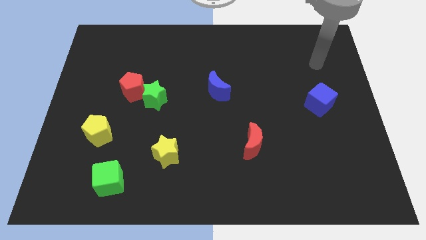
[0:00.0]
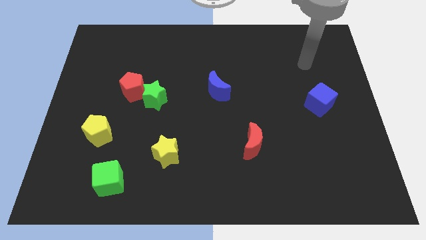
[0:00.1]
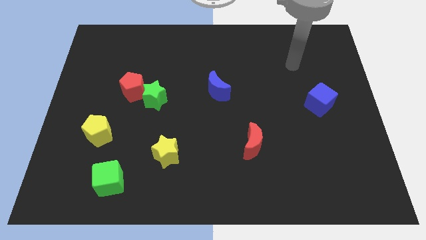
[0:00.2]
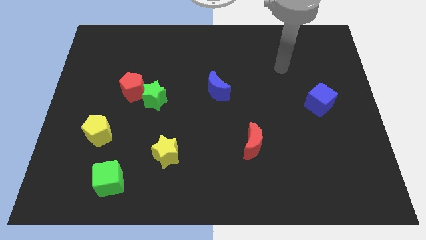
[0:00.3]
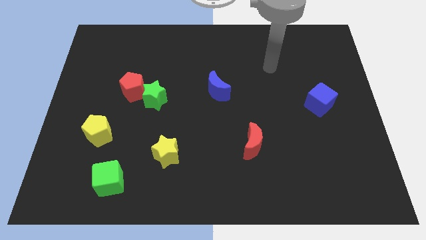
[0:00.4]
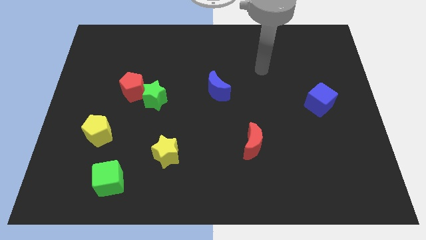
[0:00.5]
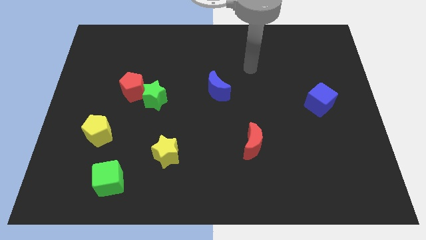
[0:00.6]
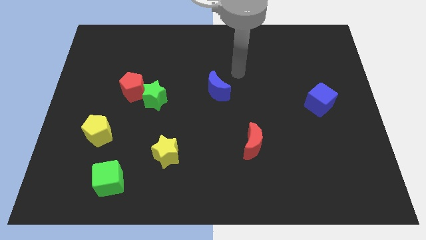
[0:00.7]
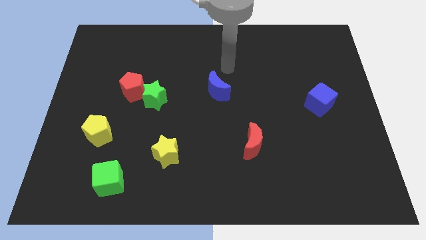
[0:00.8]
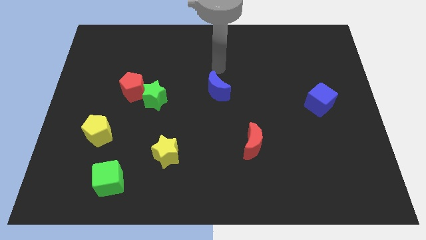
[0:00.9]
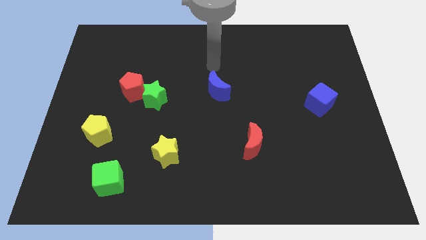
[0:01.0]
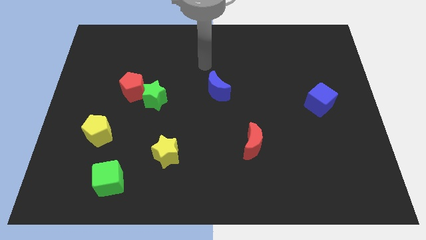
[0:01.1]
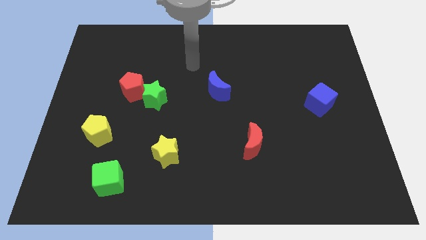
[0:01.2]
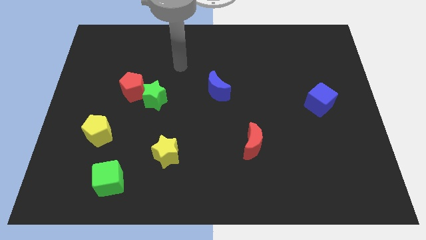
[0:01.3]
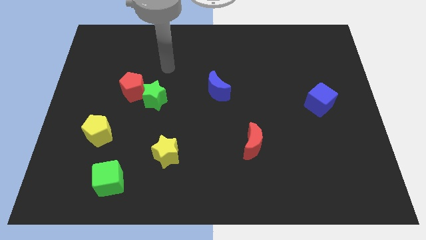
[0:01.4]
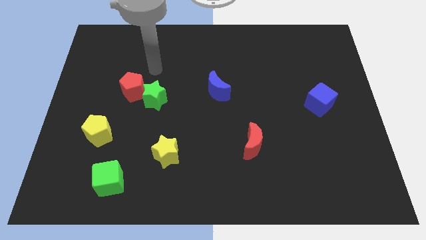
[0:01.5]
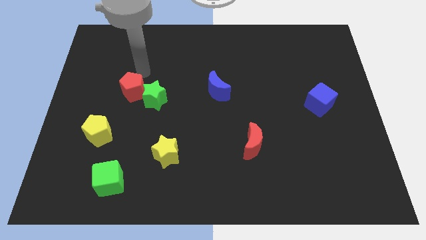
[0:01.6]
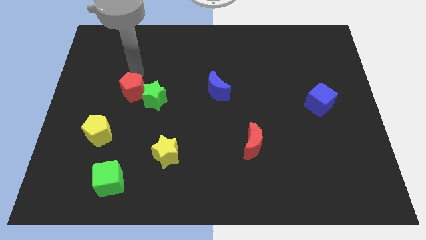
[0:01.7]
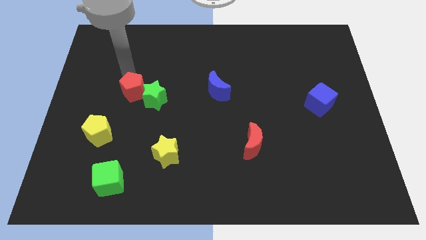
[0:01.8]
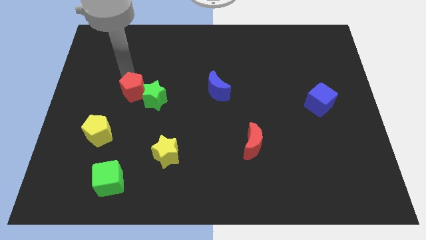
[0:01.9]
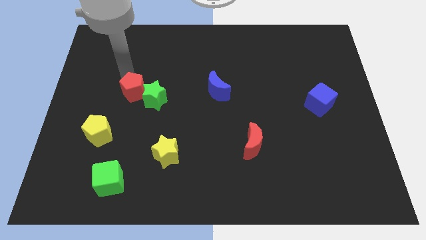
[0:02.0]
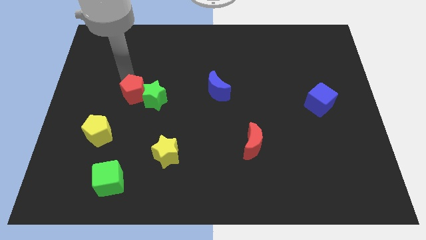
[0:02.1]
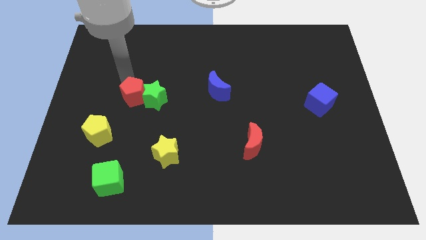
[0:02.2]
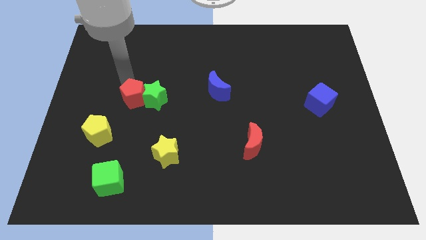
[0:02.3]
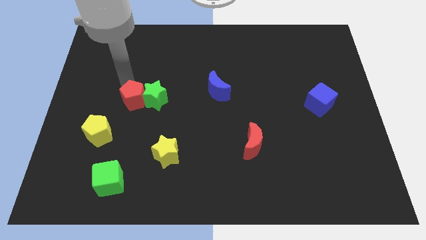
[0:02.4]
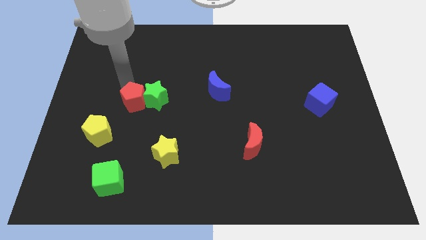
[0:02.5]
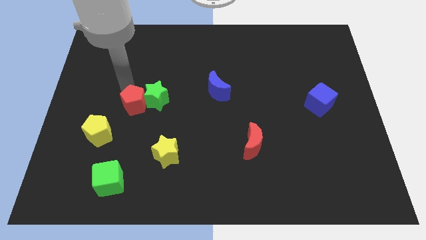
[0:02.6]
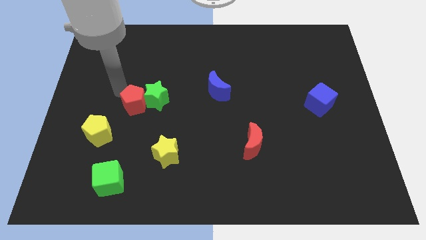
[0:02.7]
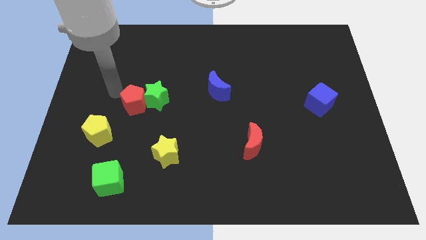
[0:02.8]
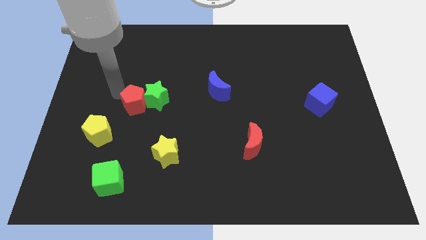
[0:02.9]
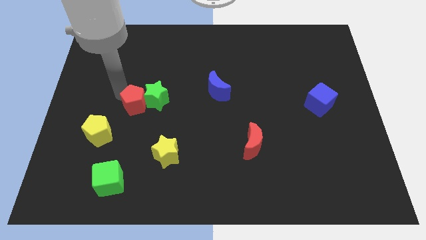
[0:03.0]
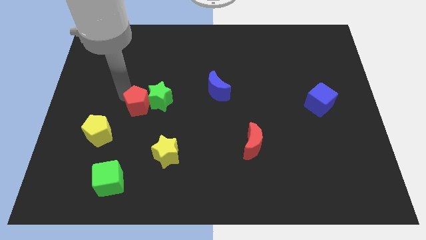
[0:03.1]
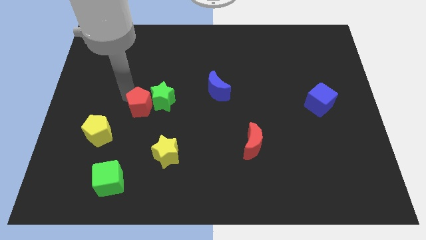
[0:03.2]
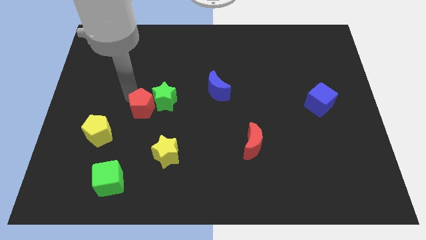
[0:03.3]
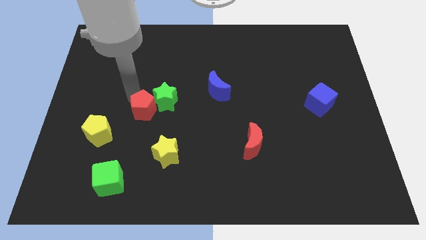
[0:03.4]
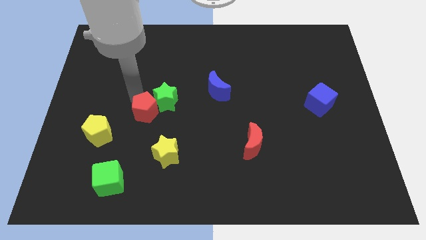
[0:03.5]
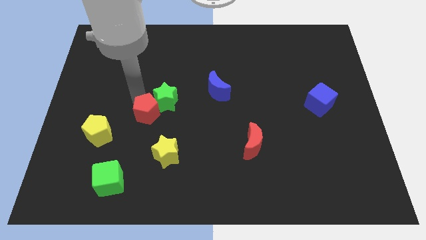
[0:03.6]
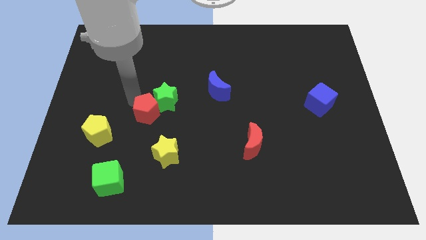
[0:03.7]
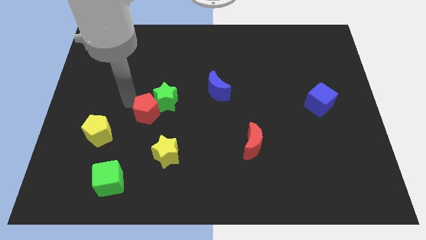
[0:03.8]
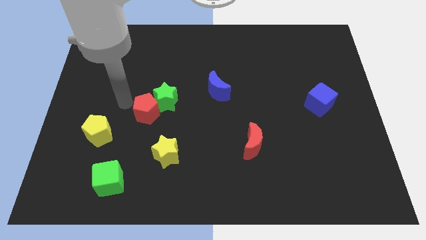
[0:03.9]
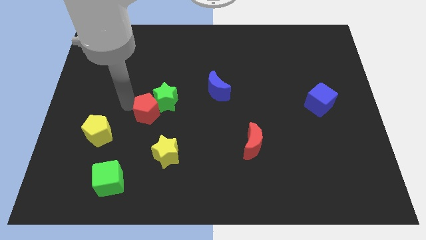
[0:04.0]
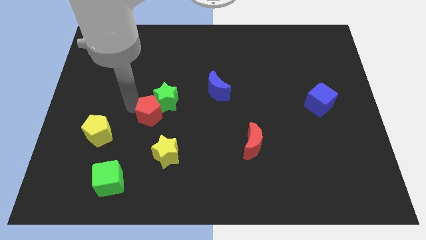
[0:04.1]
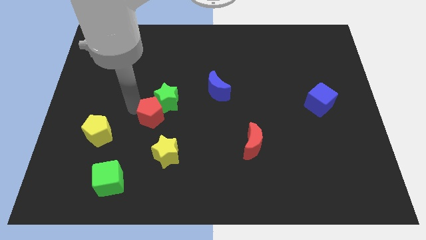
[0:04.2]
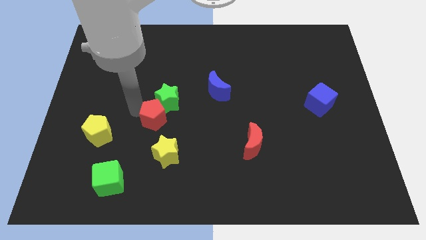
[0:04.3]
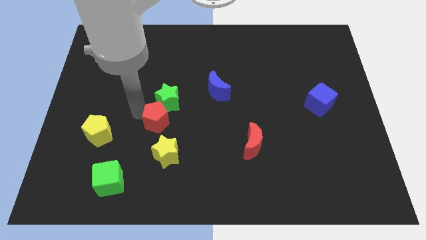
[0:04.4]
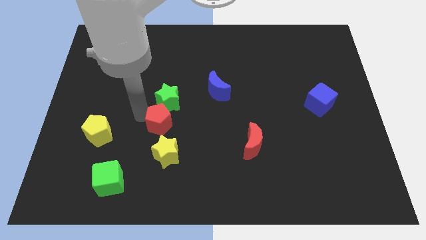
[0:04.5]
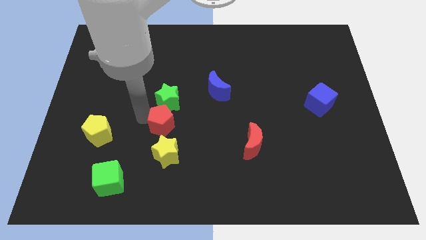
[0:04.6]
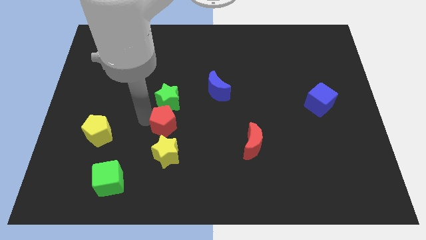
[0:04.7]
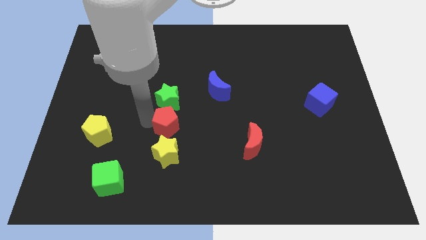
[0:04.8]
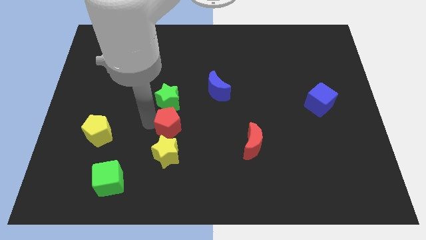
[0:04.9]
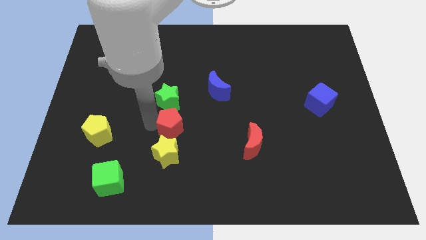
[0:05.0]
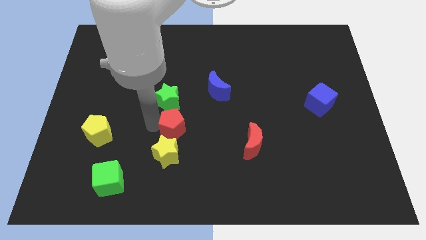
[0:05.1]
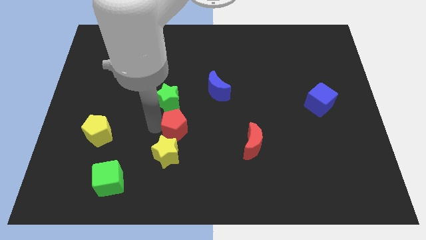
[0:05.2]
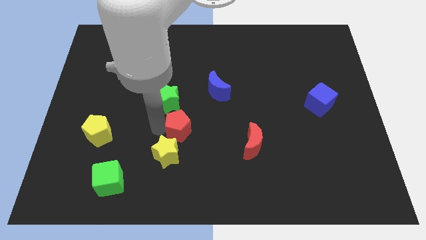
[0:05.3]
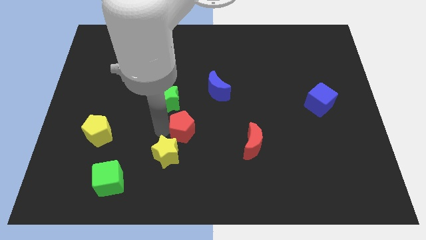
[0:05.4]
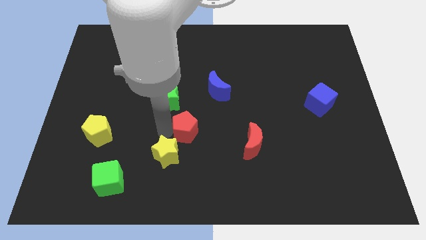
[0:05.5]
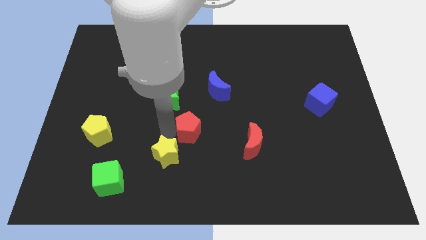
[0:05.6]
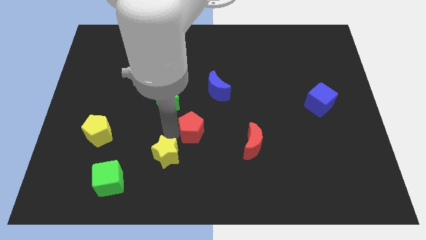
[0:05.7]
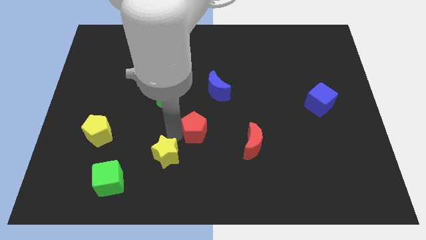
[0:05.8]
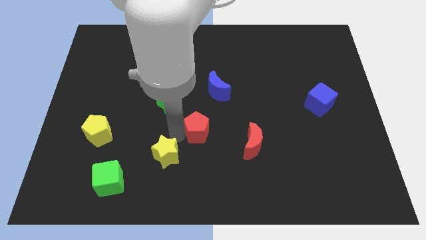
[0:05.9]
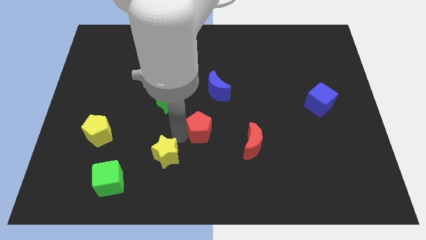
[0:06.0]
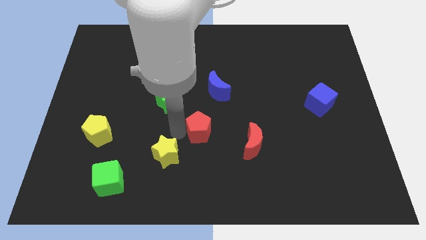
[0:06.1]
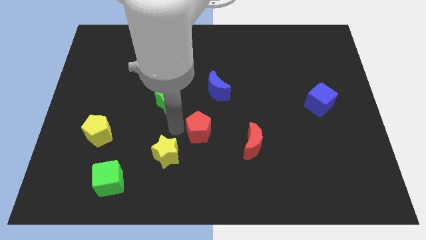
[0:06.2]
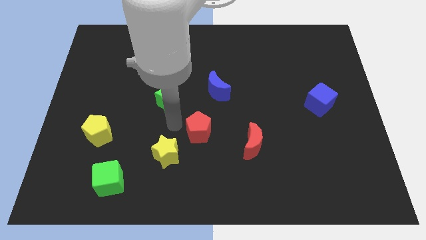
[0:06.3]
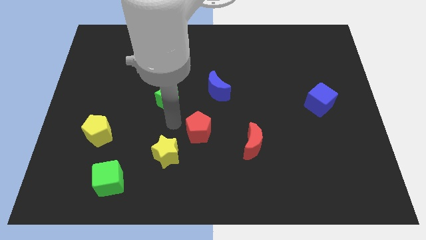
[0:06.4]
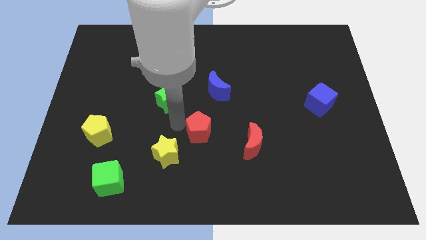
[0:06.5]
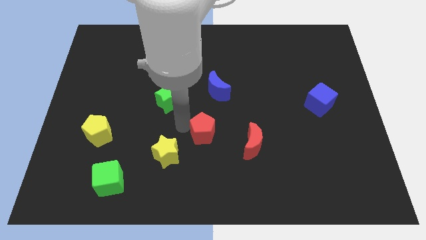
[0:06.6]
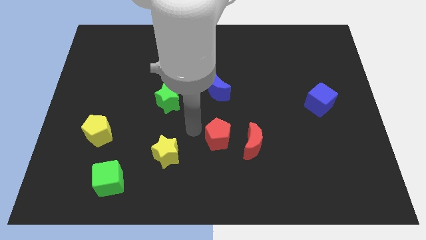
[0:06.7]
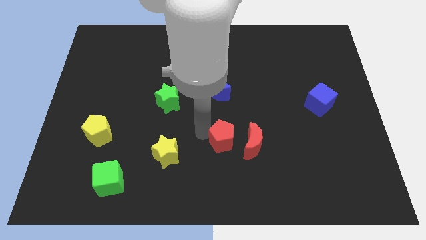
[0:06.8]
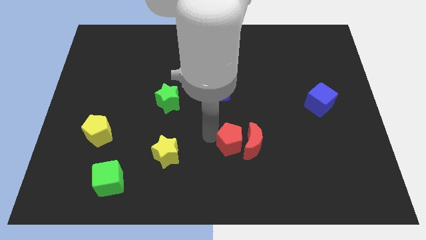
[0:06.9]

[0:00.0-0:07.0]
push the red pentagon towards the red moon
